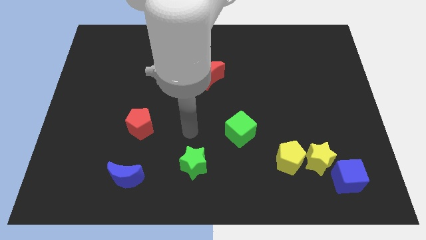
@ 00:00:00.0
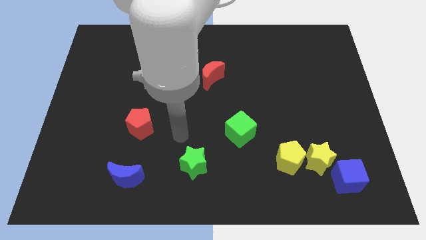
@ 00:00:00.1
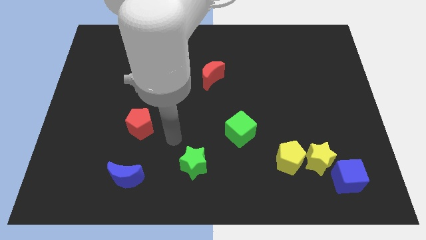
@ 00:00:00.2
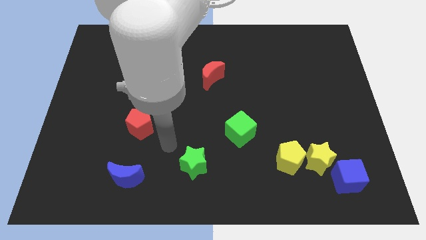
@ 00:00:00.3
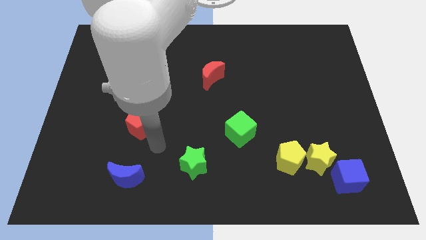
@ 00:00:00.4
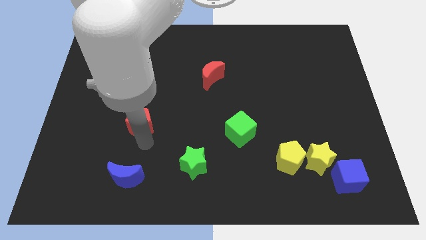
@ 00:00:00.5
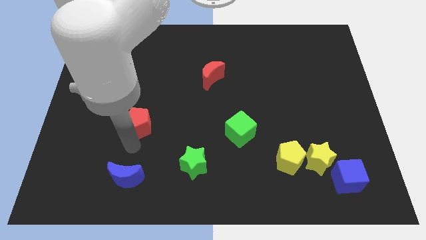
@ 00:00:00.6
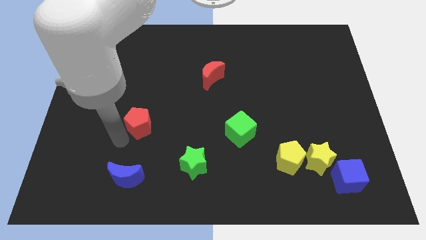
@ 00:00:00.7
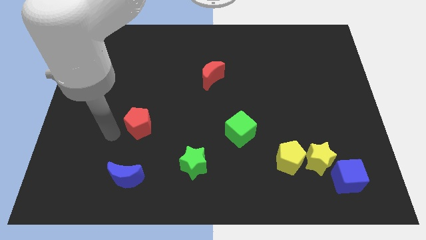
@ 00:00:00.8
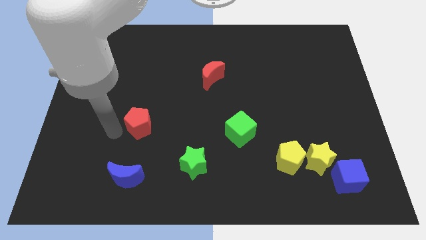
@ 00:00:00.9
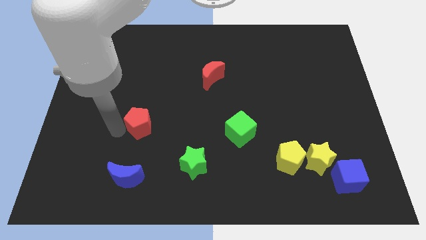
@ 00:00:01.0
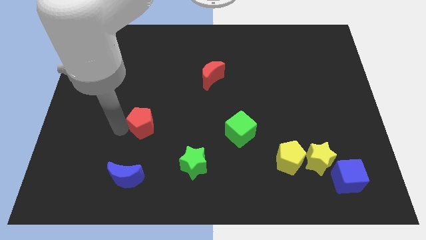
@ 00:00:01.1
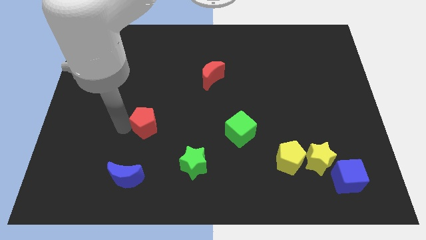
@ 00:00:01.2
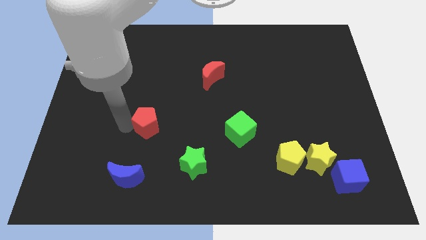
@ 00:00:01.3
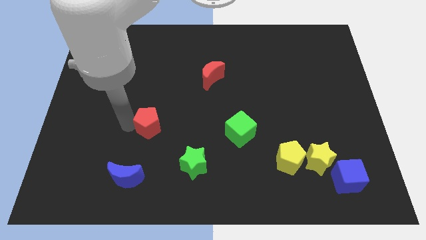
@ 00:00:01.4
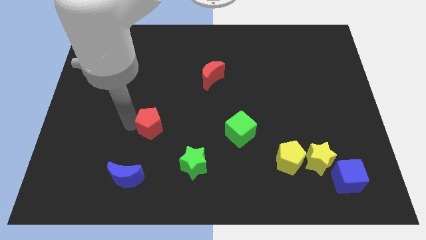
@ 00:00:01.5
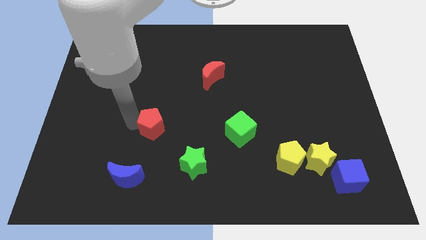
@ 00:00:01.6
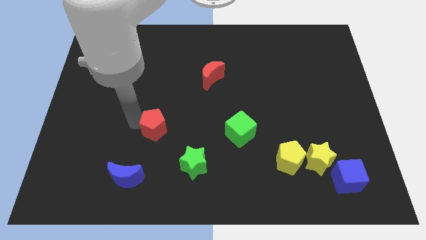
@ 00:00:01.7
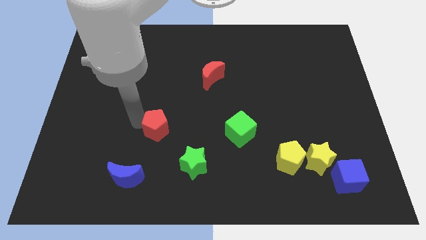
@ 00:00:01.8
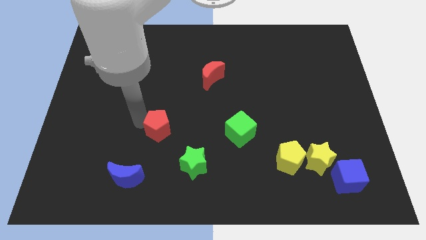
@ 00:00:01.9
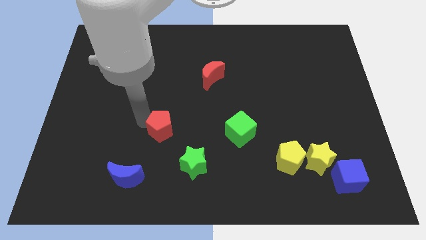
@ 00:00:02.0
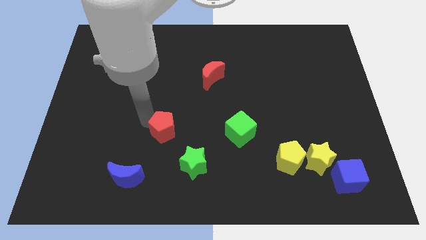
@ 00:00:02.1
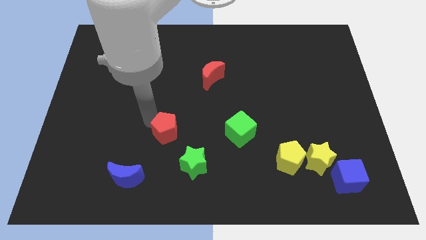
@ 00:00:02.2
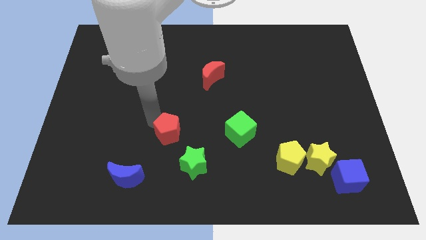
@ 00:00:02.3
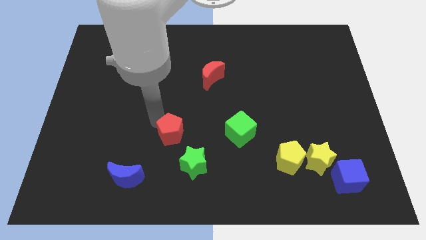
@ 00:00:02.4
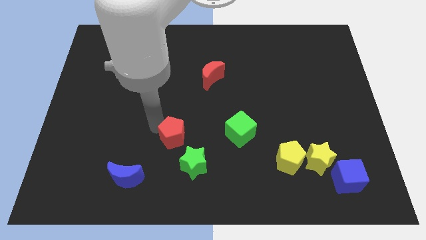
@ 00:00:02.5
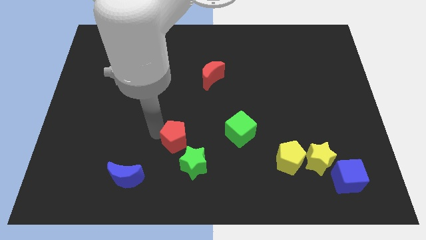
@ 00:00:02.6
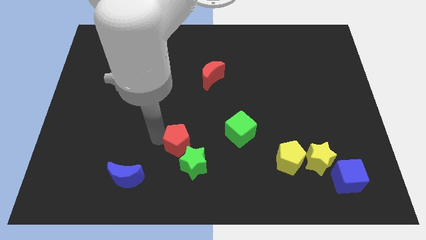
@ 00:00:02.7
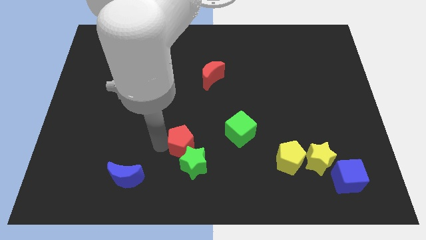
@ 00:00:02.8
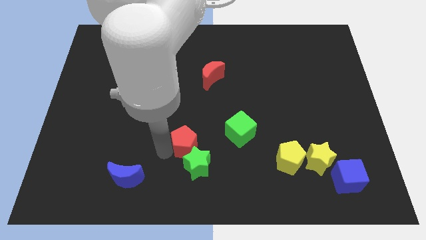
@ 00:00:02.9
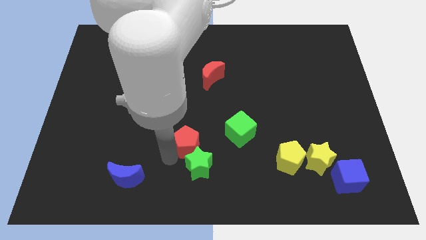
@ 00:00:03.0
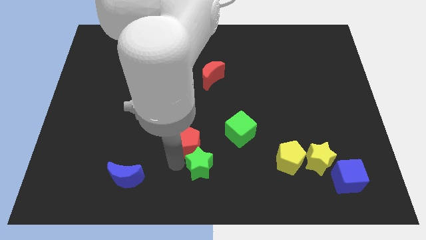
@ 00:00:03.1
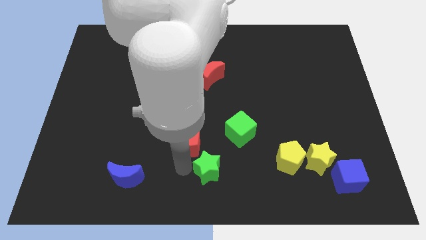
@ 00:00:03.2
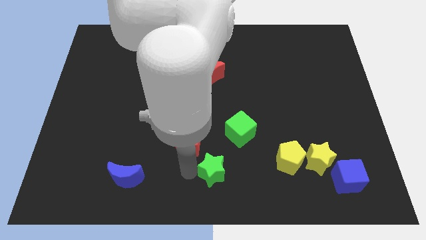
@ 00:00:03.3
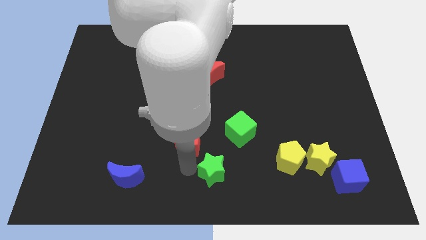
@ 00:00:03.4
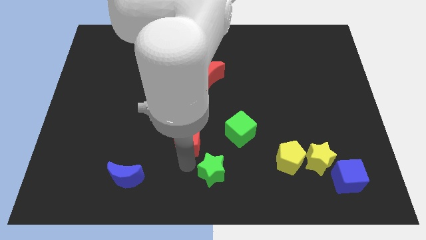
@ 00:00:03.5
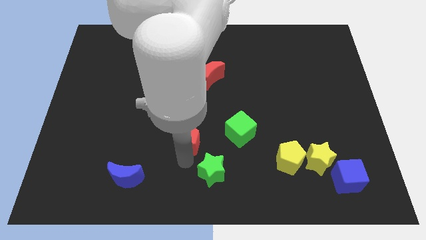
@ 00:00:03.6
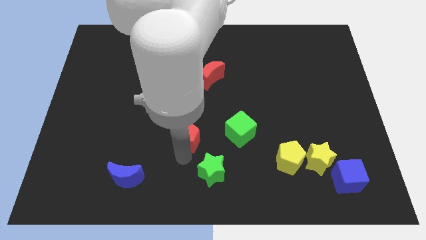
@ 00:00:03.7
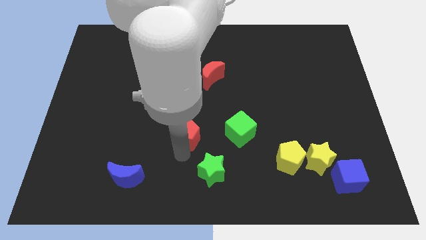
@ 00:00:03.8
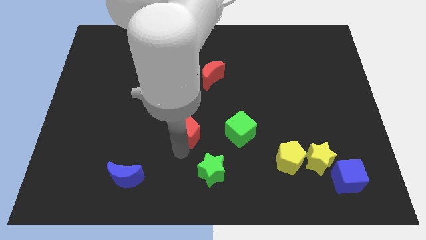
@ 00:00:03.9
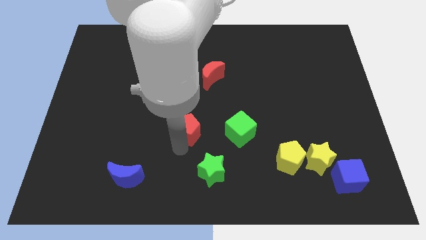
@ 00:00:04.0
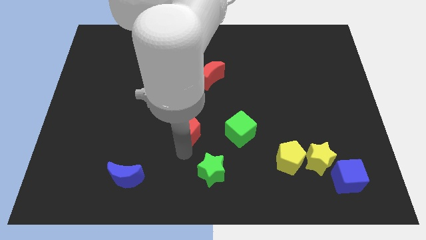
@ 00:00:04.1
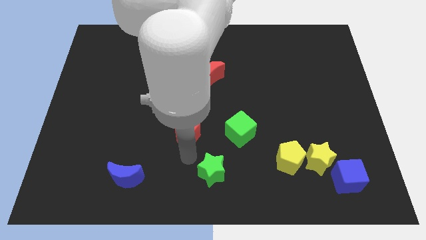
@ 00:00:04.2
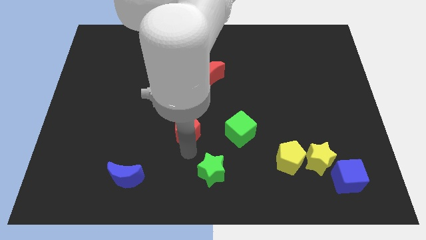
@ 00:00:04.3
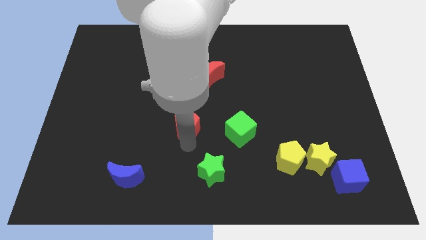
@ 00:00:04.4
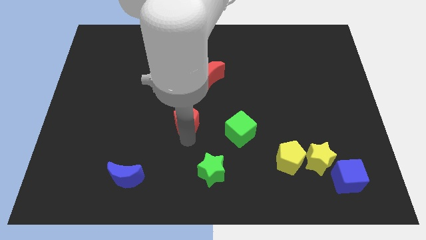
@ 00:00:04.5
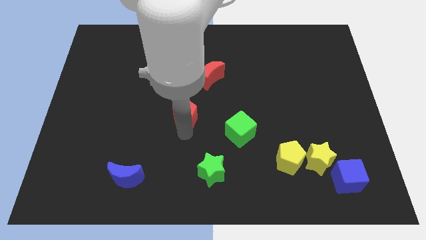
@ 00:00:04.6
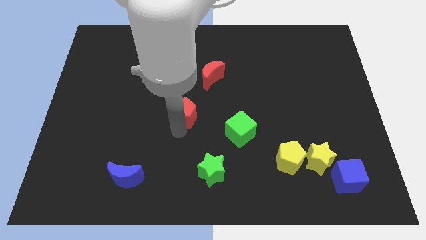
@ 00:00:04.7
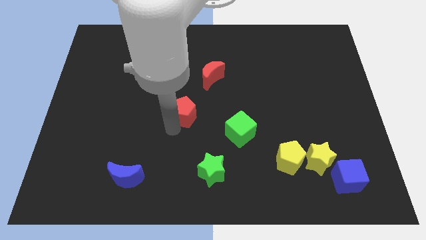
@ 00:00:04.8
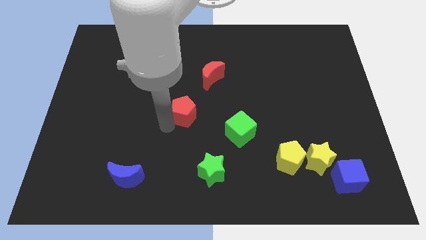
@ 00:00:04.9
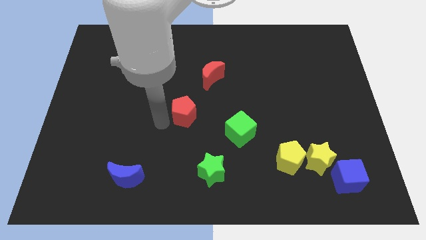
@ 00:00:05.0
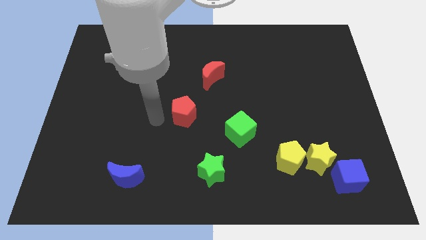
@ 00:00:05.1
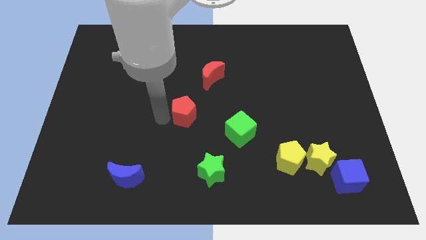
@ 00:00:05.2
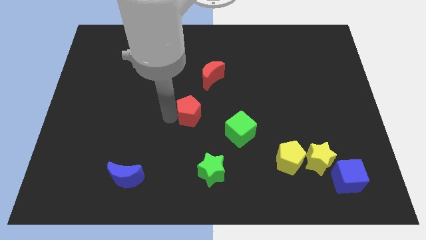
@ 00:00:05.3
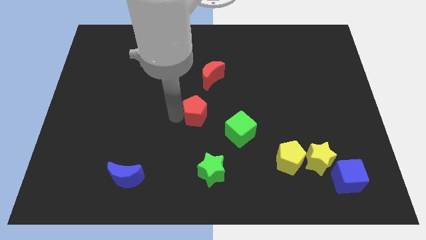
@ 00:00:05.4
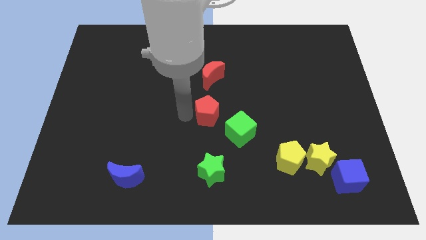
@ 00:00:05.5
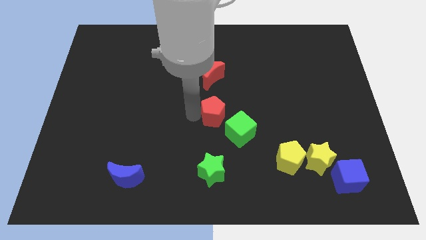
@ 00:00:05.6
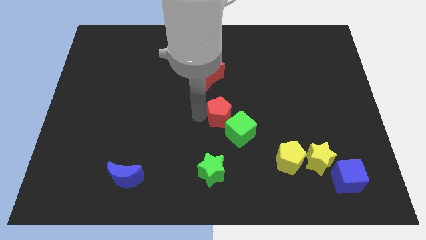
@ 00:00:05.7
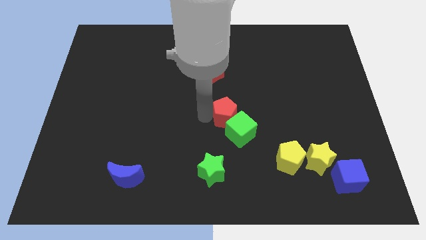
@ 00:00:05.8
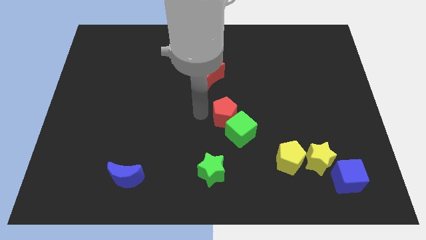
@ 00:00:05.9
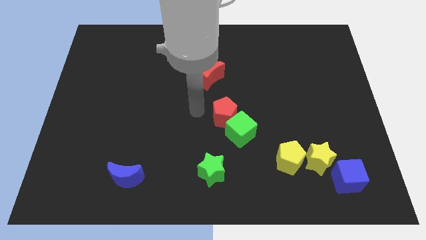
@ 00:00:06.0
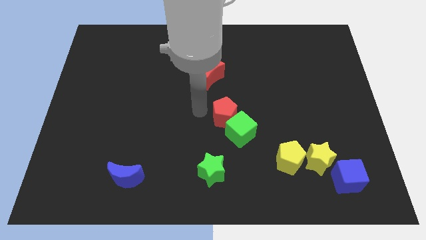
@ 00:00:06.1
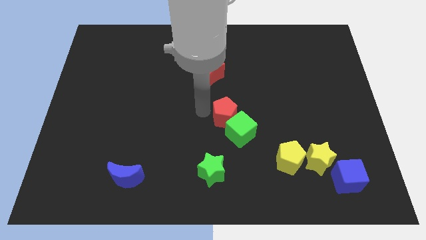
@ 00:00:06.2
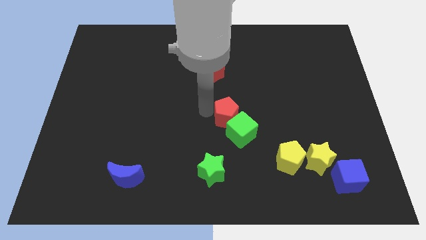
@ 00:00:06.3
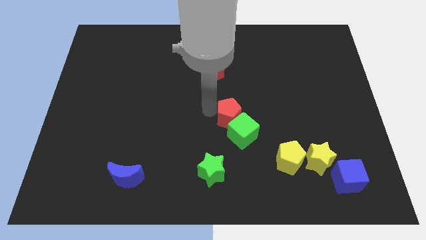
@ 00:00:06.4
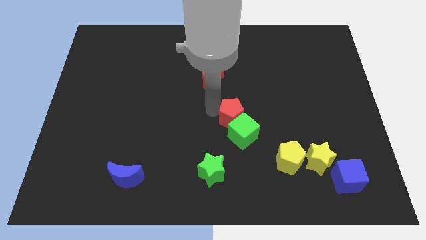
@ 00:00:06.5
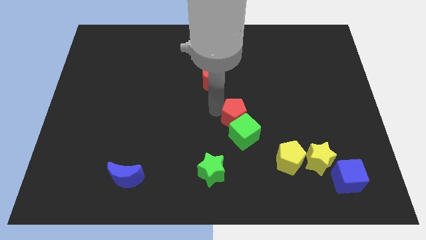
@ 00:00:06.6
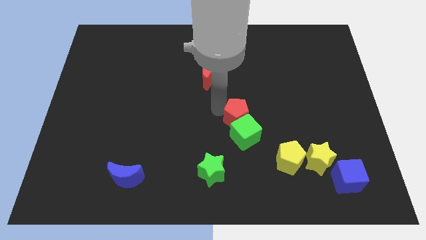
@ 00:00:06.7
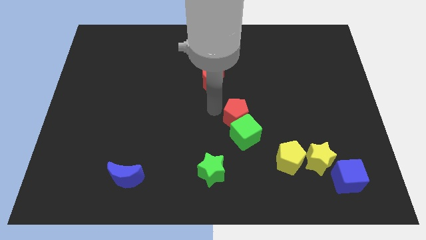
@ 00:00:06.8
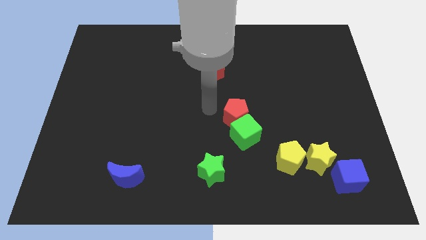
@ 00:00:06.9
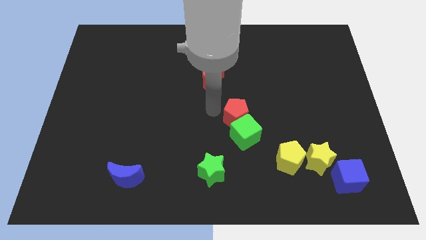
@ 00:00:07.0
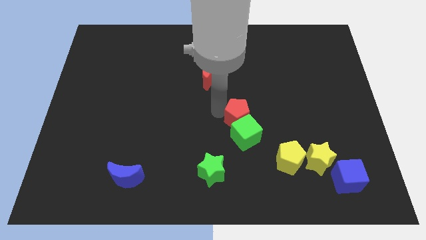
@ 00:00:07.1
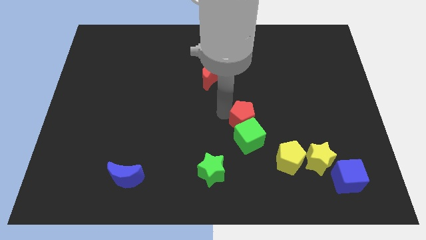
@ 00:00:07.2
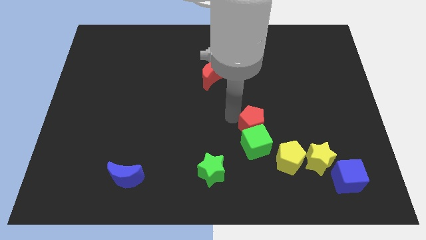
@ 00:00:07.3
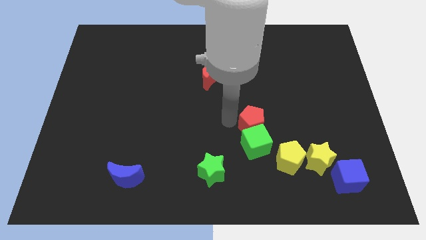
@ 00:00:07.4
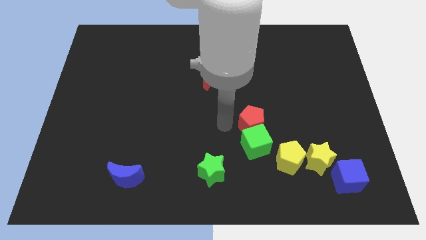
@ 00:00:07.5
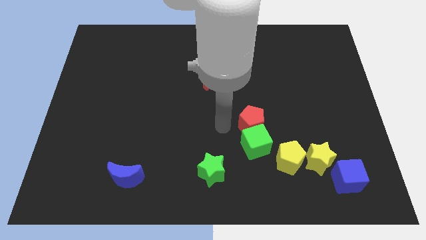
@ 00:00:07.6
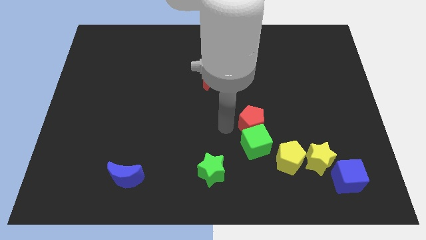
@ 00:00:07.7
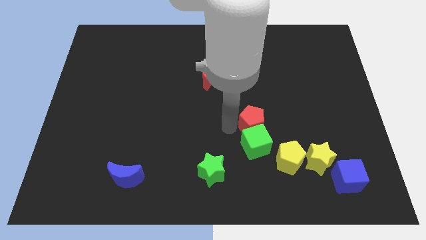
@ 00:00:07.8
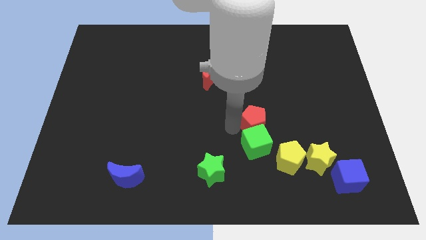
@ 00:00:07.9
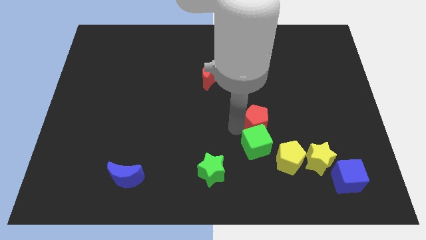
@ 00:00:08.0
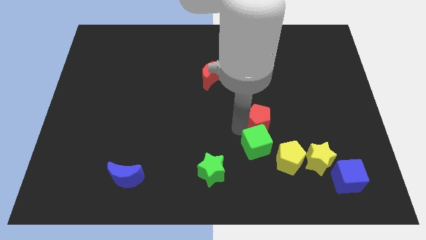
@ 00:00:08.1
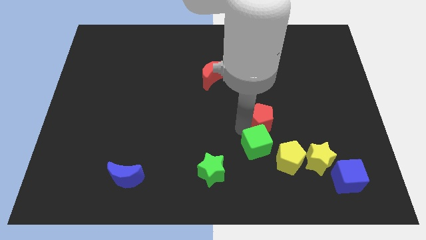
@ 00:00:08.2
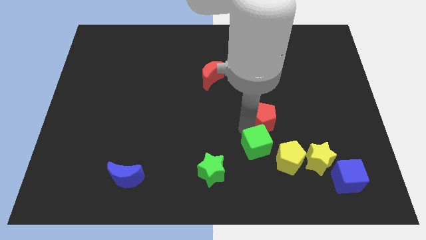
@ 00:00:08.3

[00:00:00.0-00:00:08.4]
slide the red pentagon to the top of the yellow pentagon
